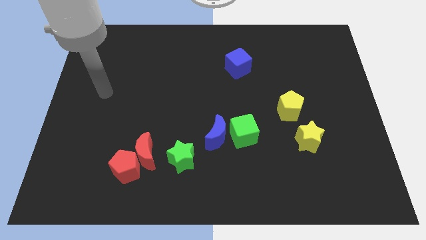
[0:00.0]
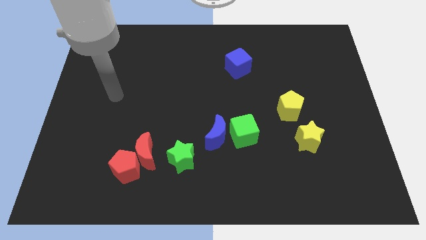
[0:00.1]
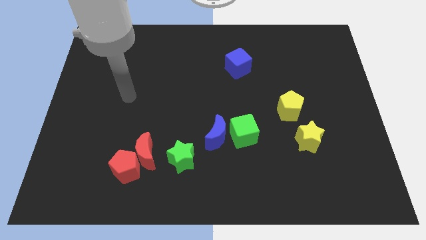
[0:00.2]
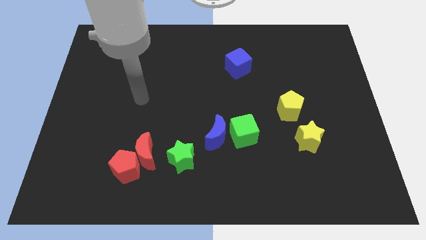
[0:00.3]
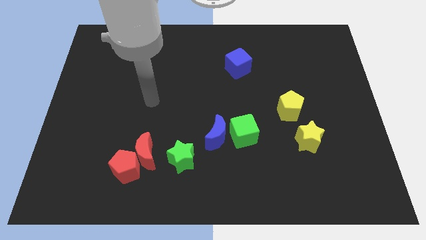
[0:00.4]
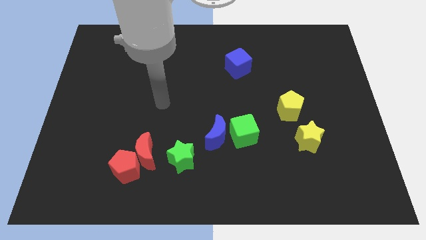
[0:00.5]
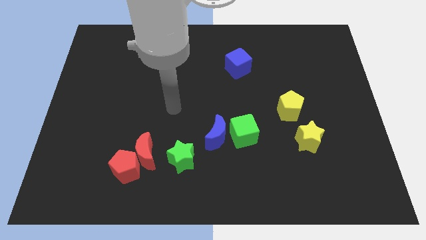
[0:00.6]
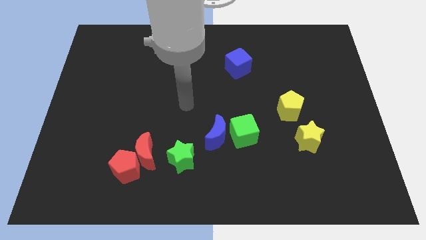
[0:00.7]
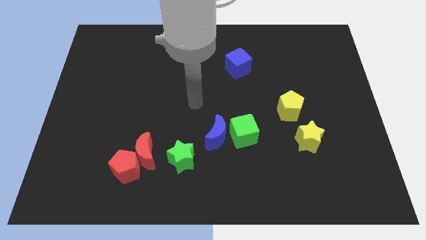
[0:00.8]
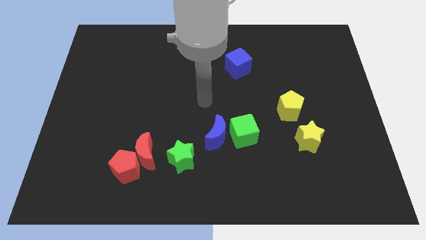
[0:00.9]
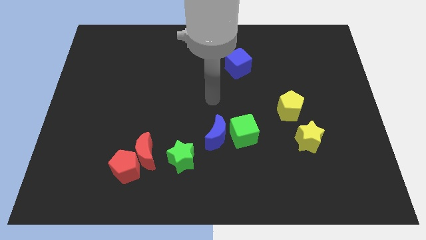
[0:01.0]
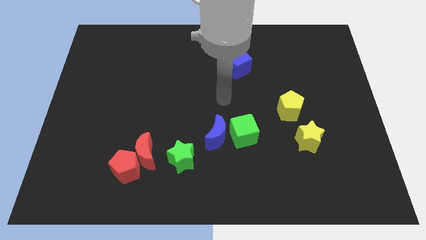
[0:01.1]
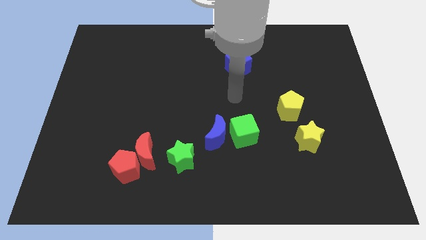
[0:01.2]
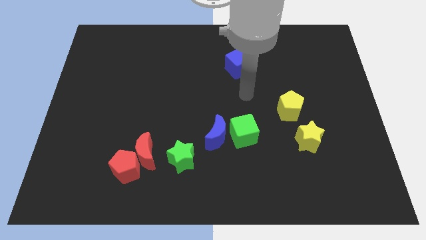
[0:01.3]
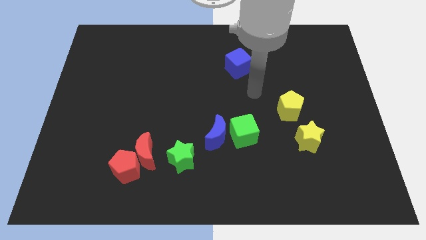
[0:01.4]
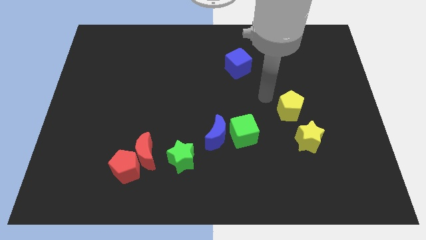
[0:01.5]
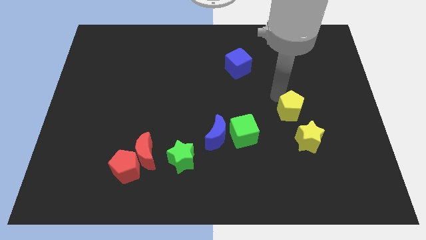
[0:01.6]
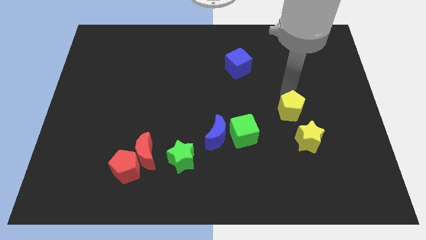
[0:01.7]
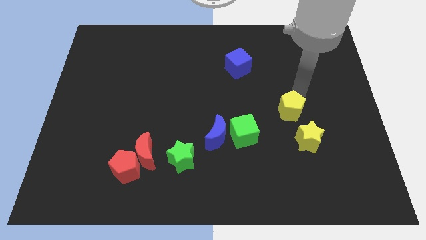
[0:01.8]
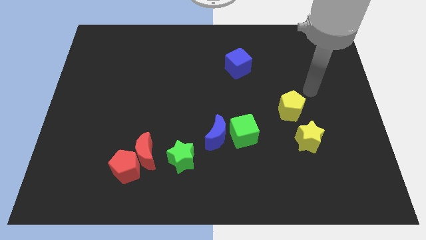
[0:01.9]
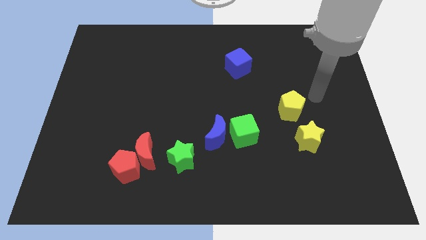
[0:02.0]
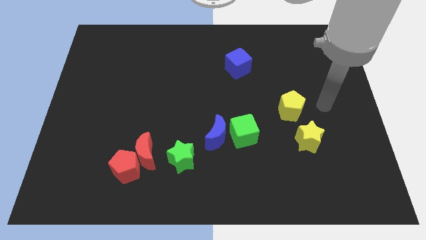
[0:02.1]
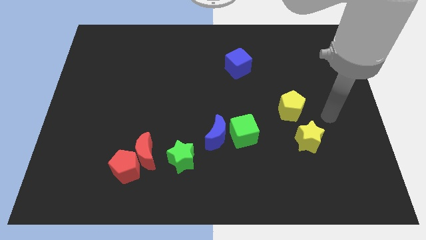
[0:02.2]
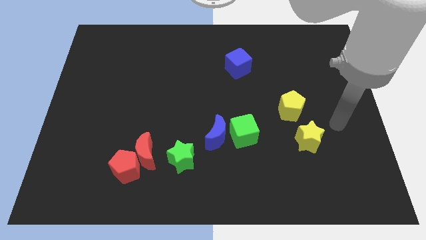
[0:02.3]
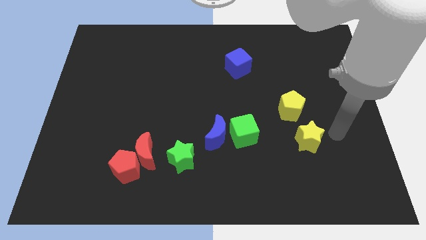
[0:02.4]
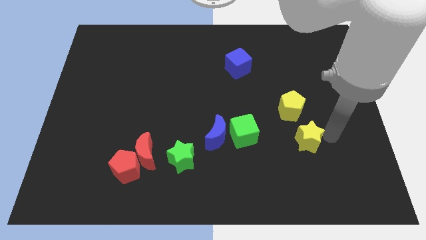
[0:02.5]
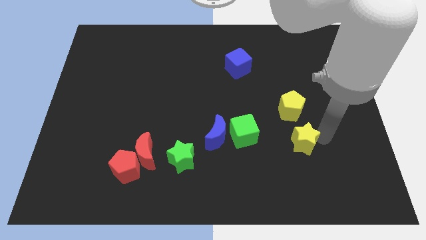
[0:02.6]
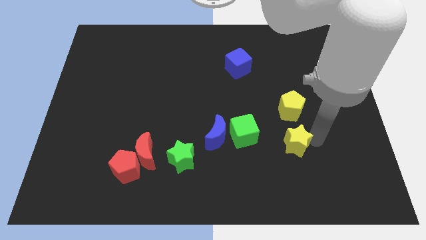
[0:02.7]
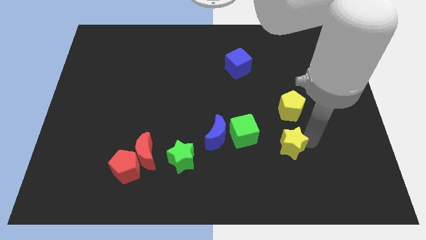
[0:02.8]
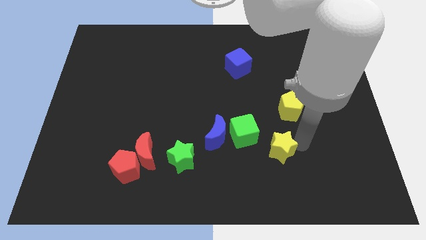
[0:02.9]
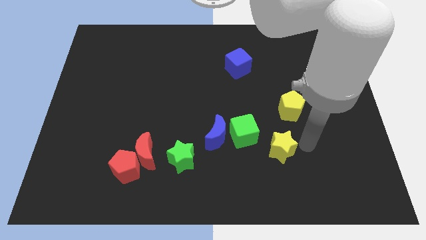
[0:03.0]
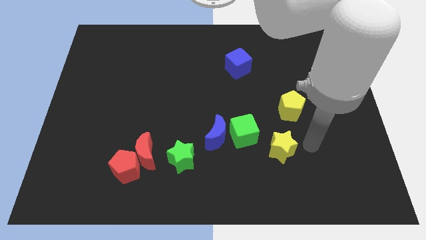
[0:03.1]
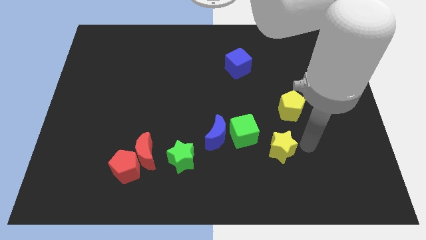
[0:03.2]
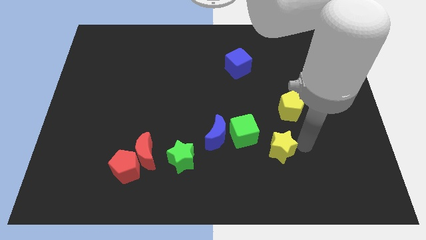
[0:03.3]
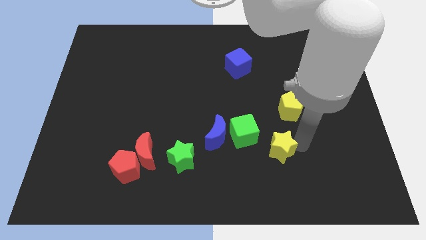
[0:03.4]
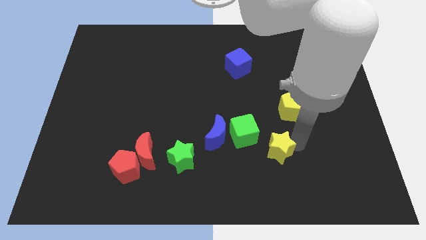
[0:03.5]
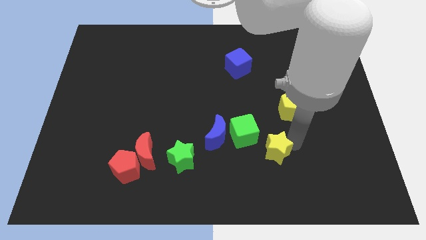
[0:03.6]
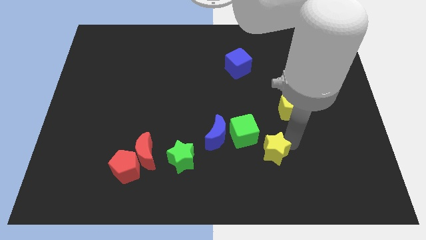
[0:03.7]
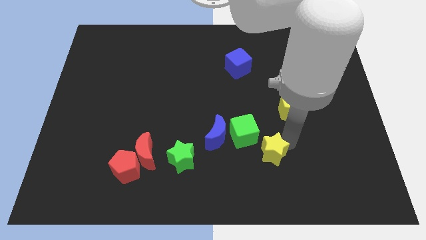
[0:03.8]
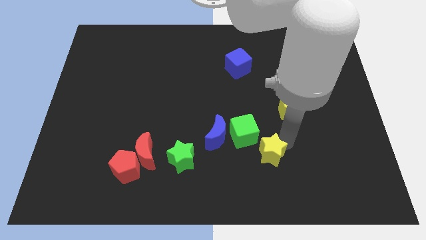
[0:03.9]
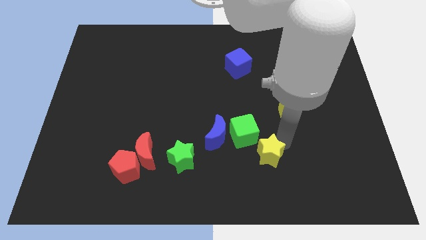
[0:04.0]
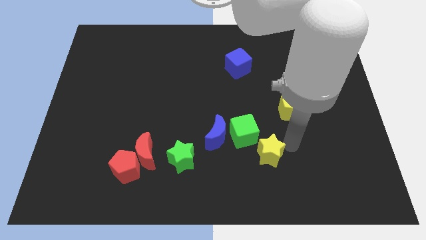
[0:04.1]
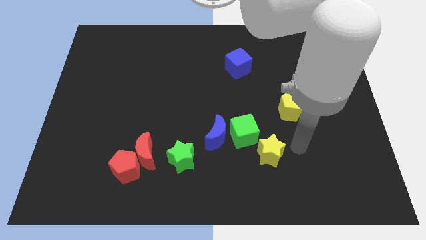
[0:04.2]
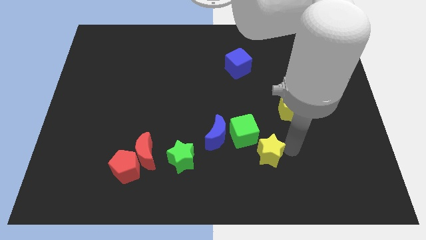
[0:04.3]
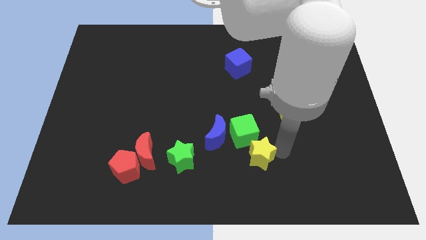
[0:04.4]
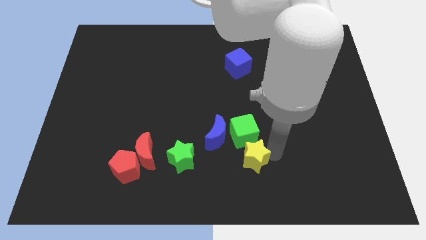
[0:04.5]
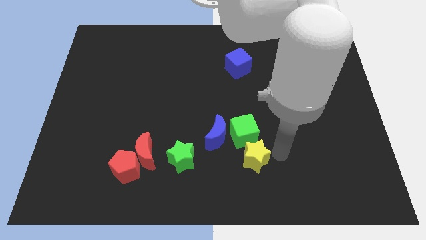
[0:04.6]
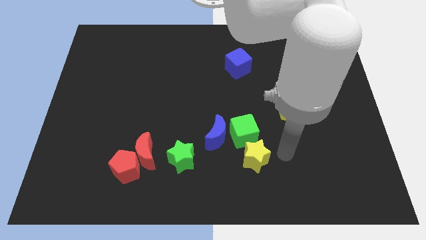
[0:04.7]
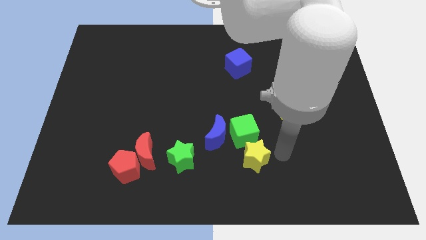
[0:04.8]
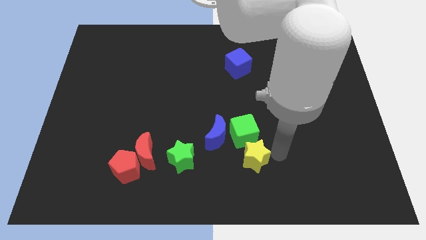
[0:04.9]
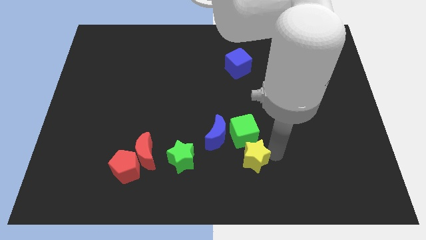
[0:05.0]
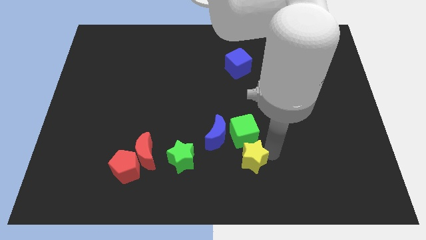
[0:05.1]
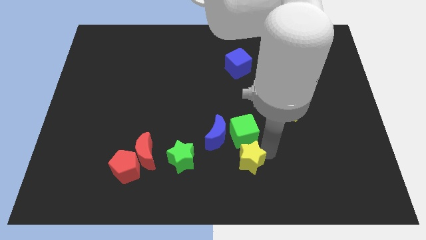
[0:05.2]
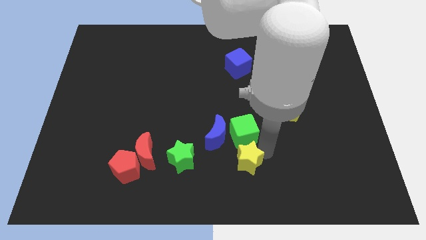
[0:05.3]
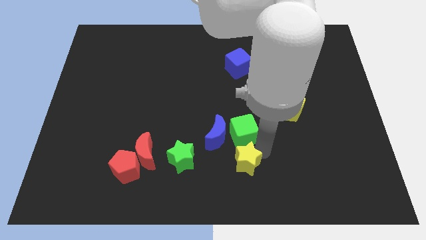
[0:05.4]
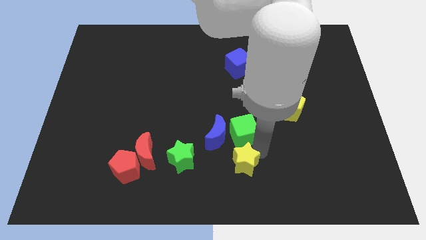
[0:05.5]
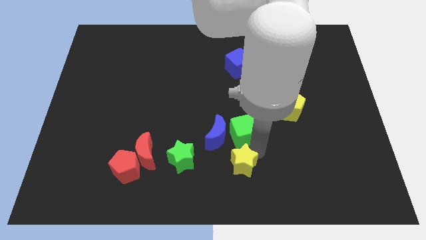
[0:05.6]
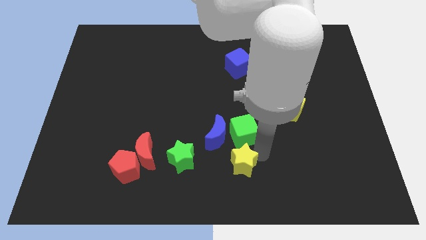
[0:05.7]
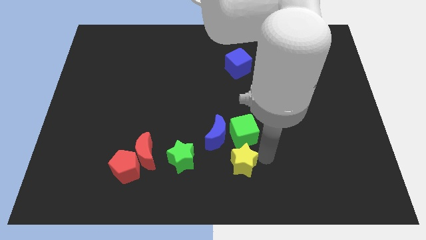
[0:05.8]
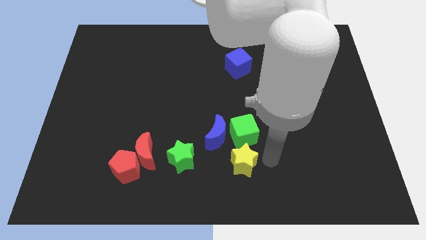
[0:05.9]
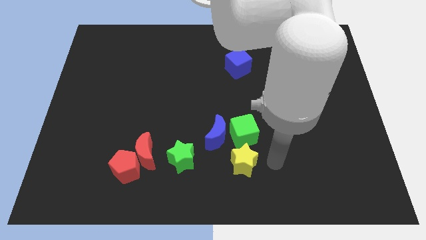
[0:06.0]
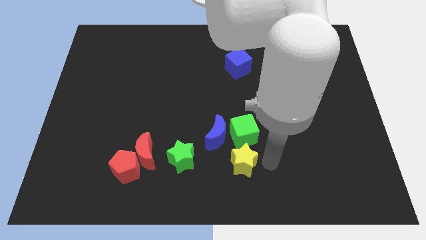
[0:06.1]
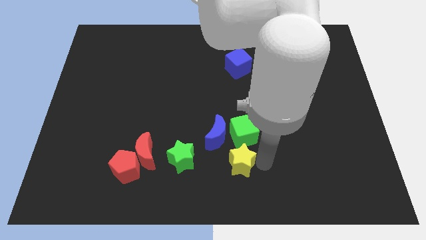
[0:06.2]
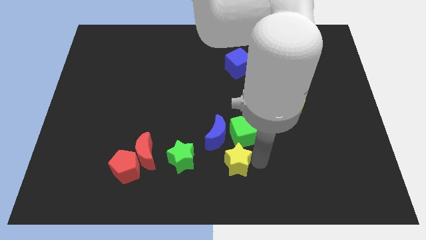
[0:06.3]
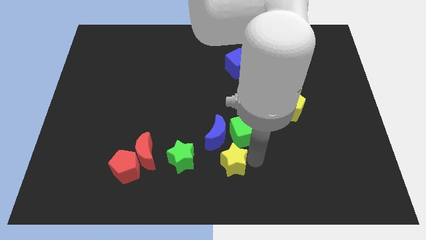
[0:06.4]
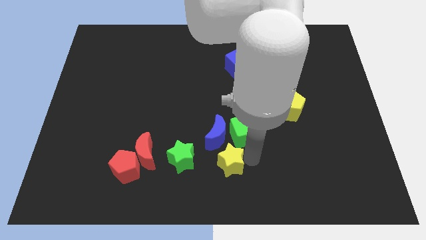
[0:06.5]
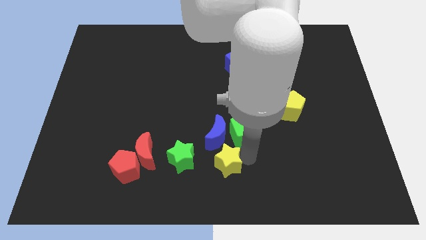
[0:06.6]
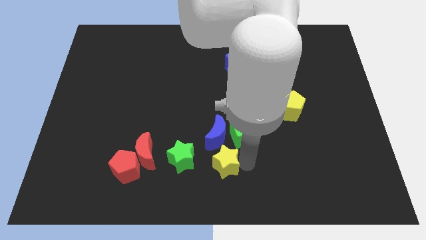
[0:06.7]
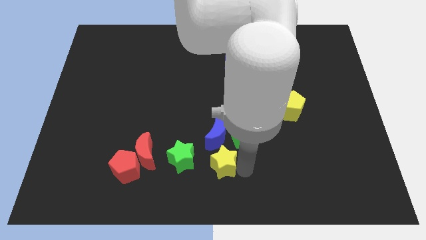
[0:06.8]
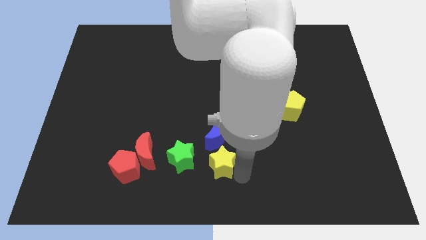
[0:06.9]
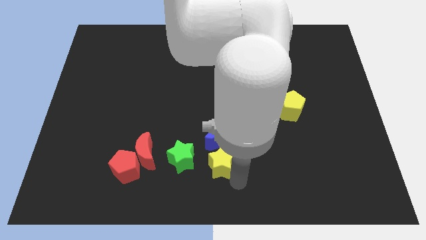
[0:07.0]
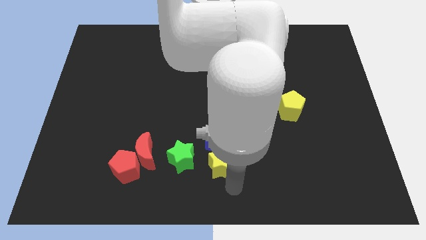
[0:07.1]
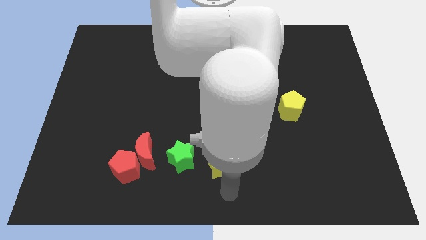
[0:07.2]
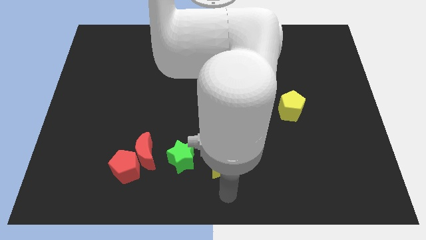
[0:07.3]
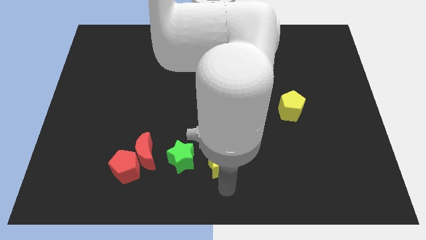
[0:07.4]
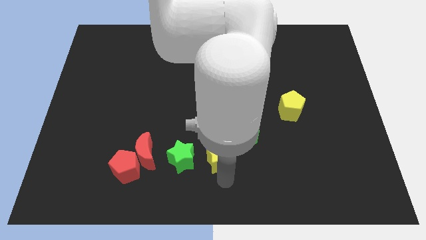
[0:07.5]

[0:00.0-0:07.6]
push the yellow star next to the blue moon
